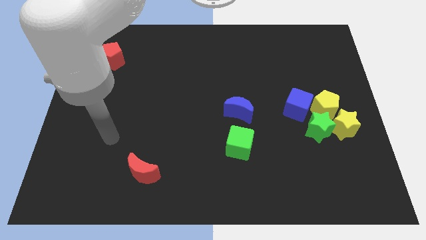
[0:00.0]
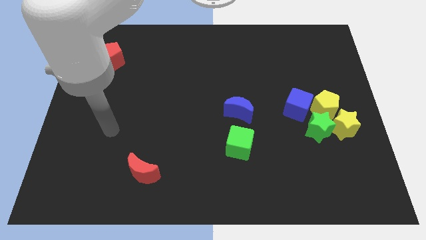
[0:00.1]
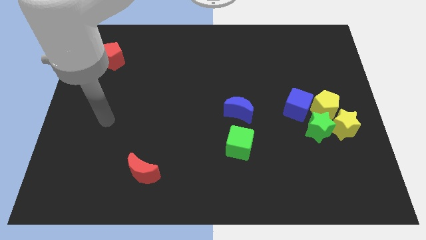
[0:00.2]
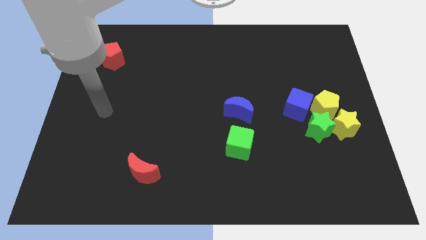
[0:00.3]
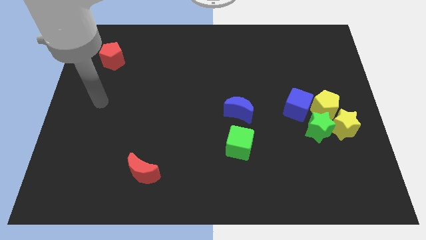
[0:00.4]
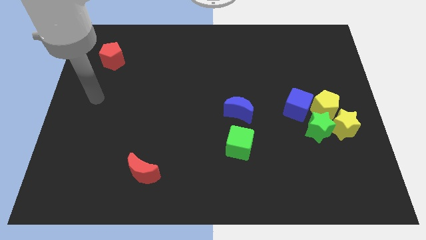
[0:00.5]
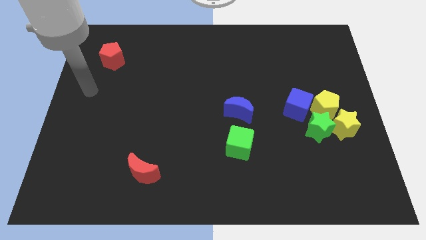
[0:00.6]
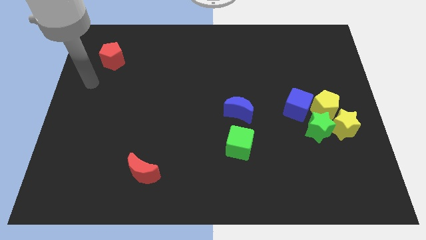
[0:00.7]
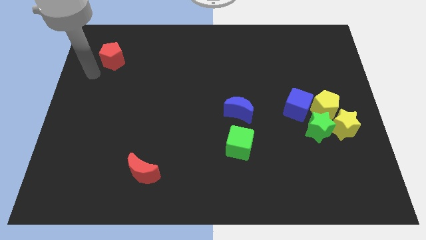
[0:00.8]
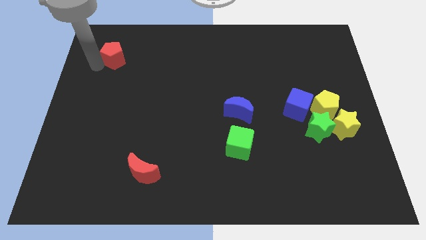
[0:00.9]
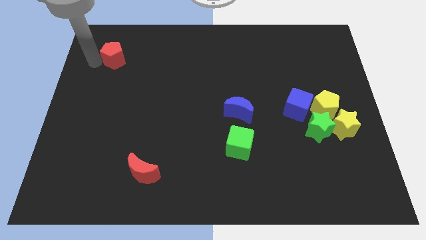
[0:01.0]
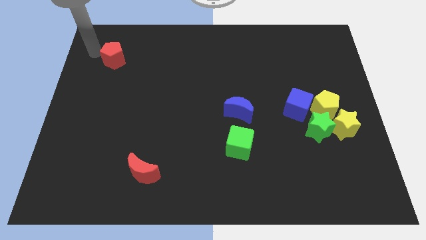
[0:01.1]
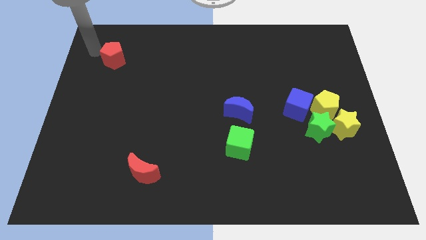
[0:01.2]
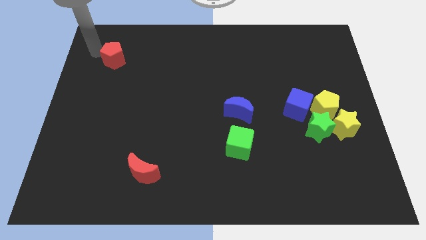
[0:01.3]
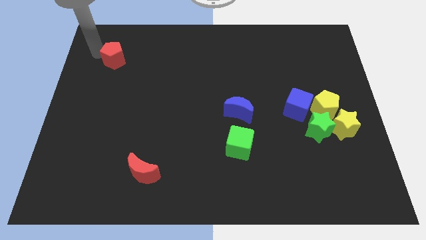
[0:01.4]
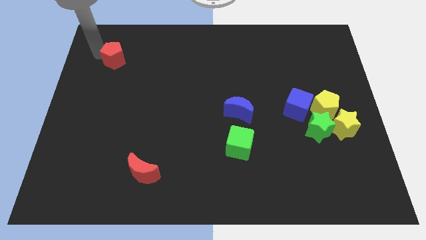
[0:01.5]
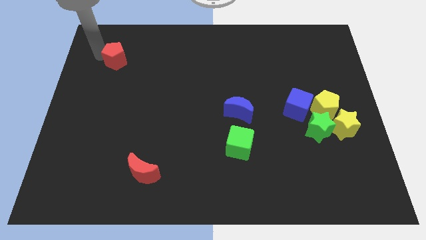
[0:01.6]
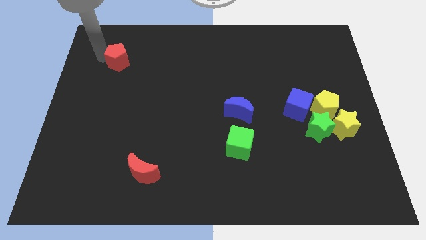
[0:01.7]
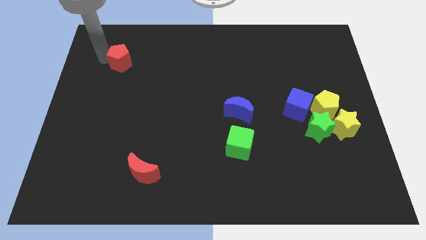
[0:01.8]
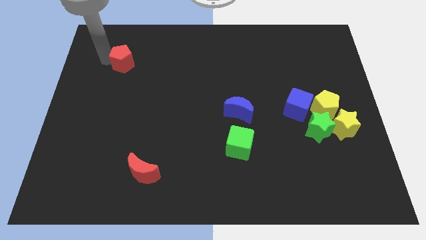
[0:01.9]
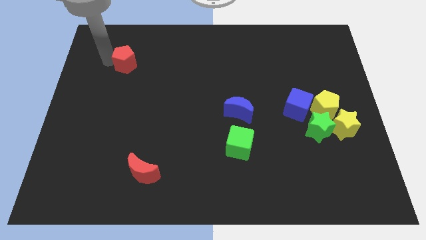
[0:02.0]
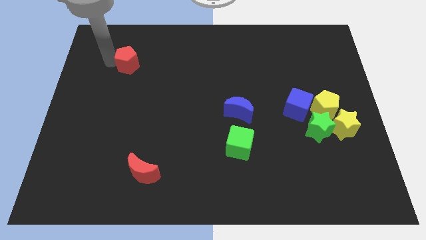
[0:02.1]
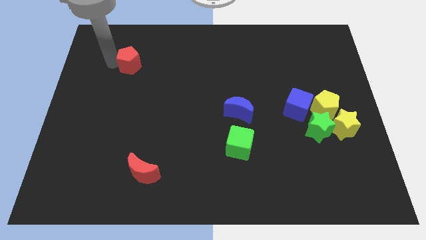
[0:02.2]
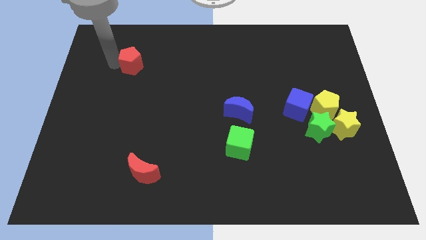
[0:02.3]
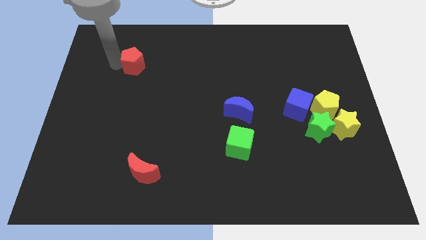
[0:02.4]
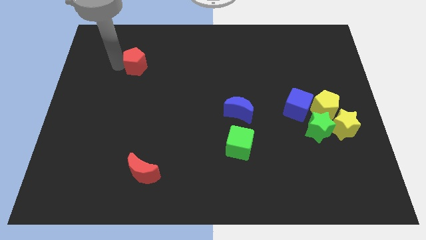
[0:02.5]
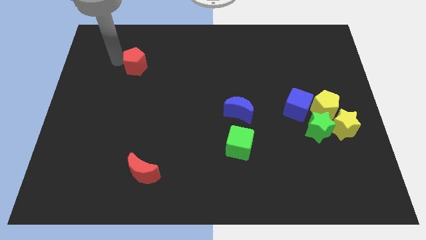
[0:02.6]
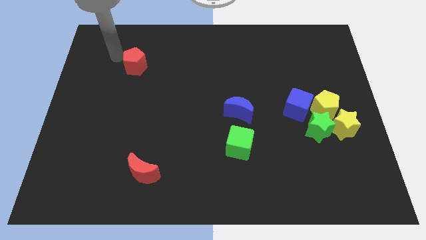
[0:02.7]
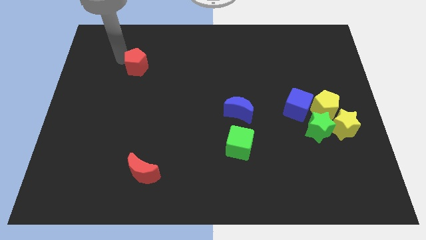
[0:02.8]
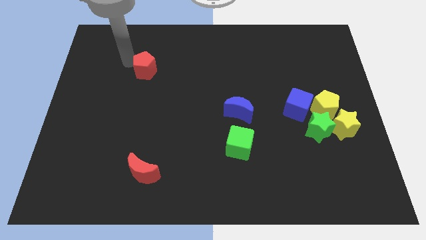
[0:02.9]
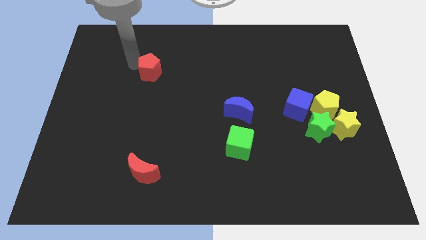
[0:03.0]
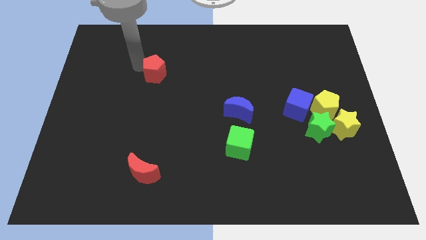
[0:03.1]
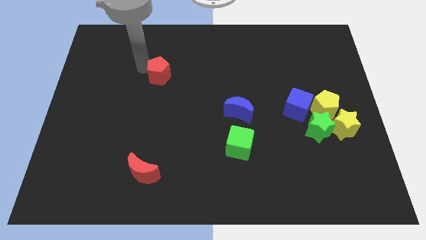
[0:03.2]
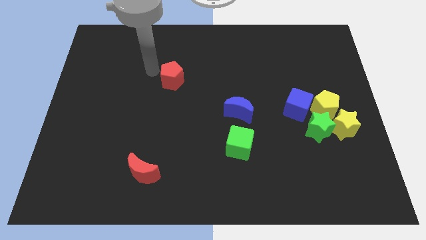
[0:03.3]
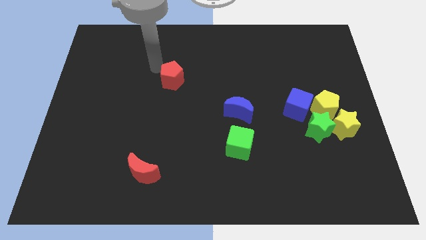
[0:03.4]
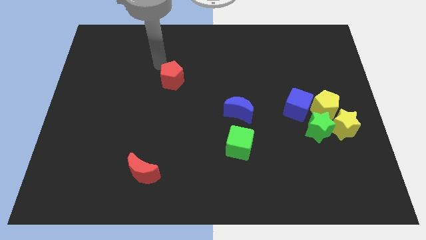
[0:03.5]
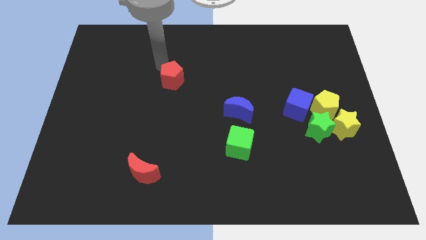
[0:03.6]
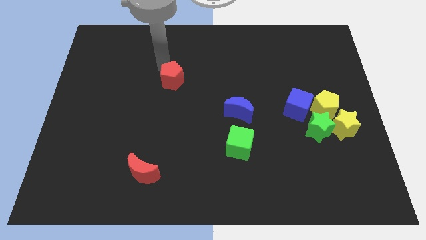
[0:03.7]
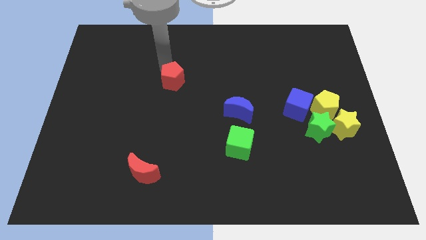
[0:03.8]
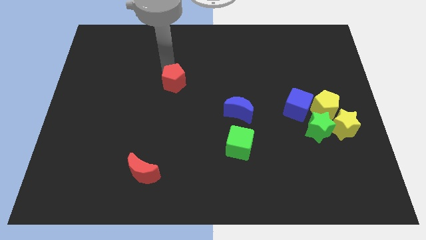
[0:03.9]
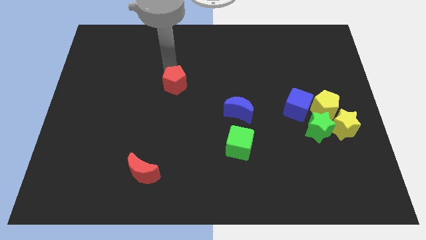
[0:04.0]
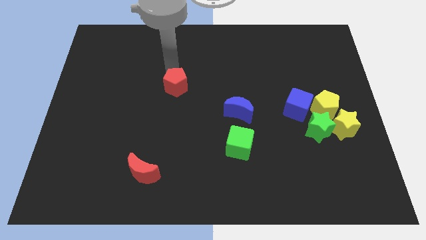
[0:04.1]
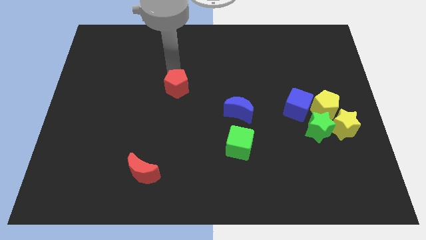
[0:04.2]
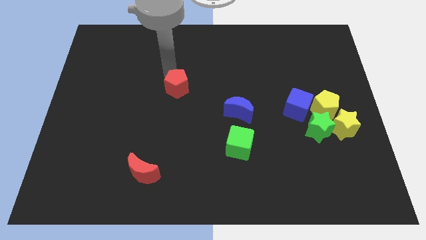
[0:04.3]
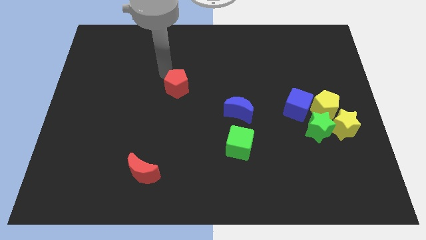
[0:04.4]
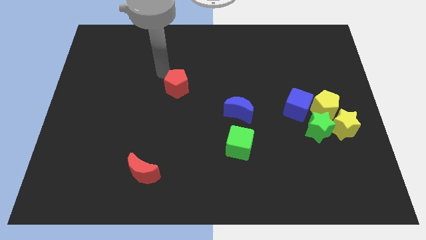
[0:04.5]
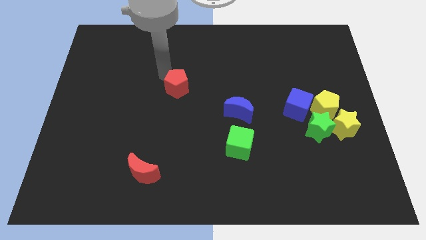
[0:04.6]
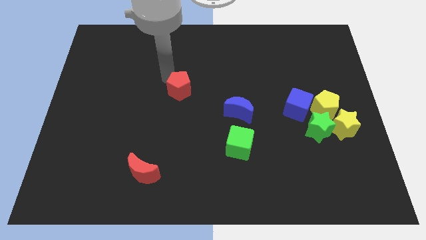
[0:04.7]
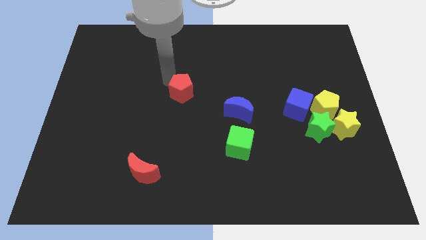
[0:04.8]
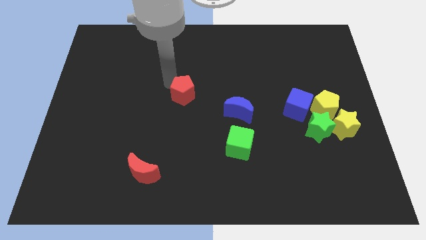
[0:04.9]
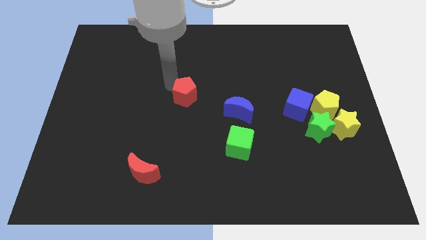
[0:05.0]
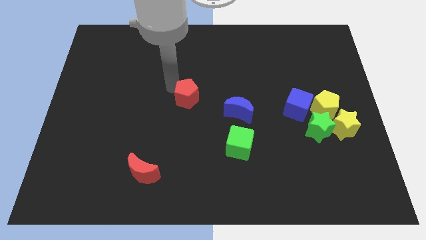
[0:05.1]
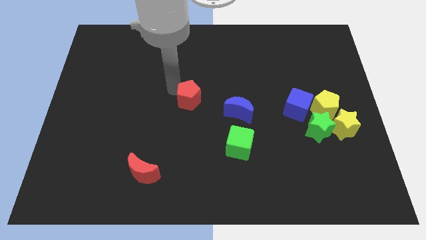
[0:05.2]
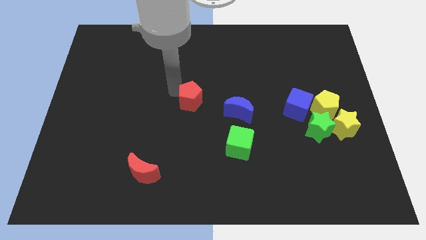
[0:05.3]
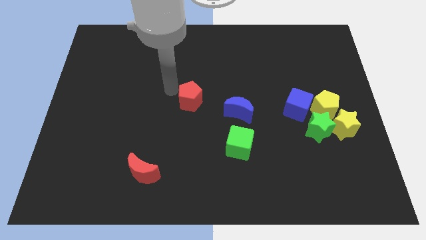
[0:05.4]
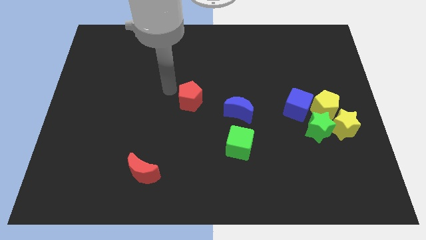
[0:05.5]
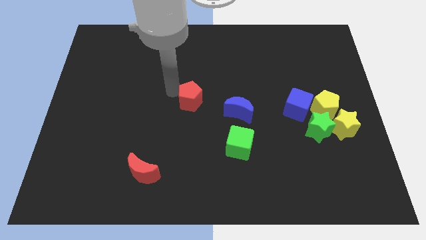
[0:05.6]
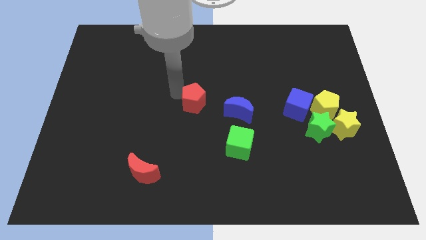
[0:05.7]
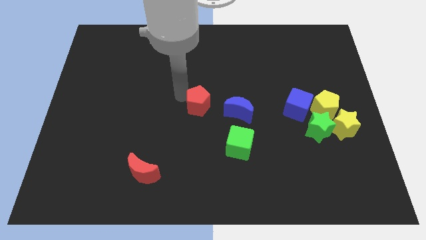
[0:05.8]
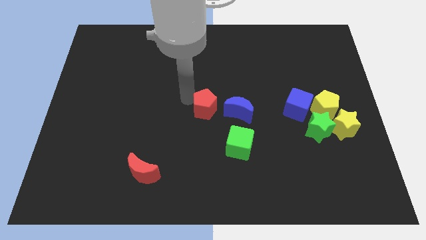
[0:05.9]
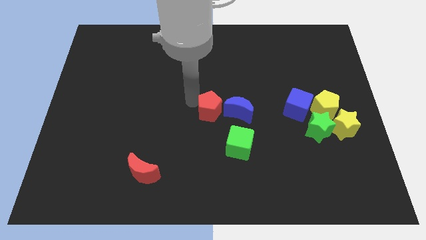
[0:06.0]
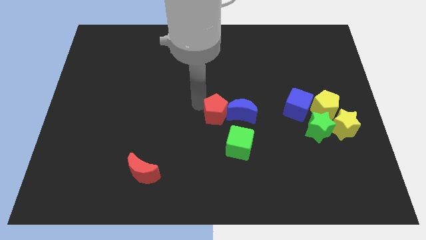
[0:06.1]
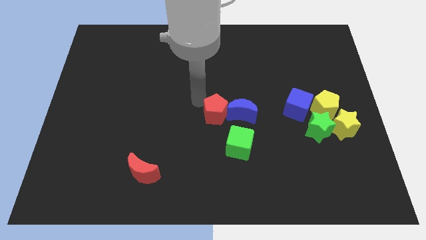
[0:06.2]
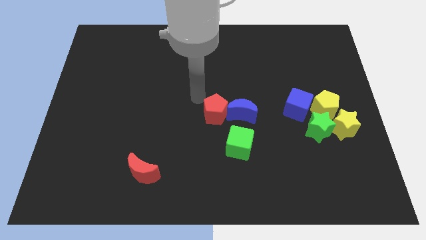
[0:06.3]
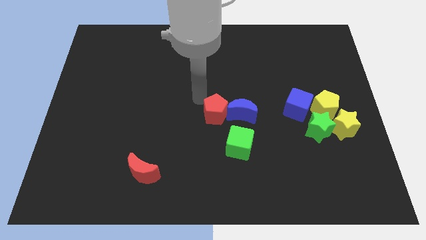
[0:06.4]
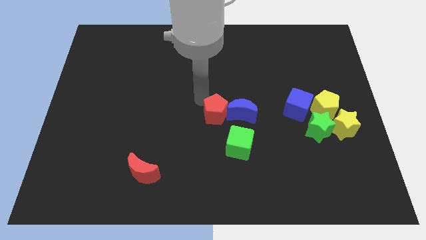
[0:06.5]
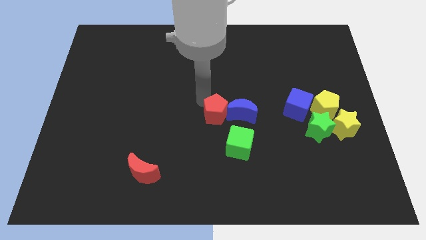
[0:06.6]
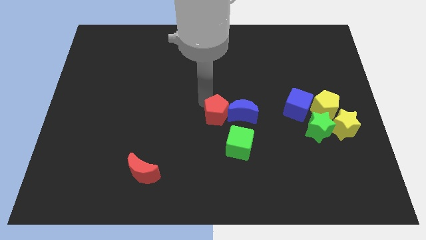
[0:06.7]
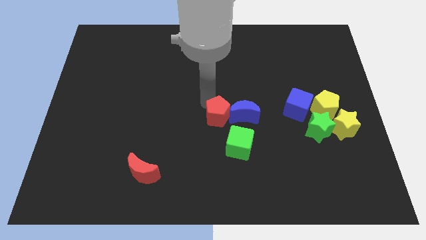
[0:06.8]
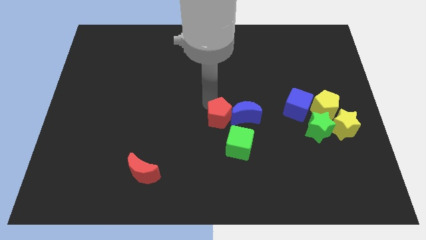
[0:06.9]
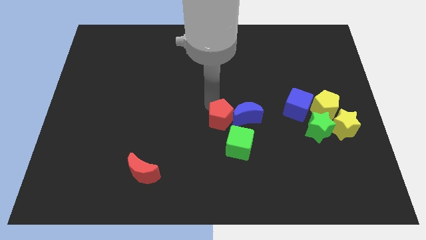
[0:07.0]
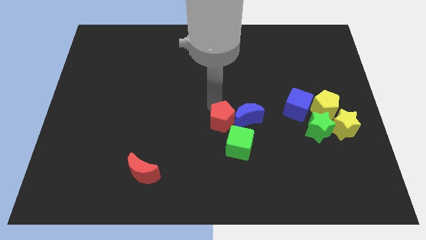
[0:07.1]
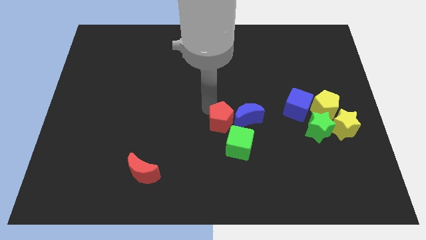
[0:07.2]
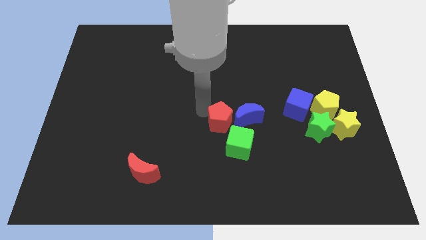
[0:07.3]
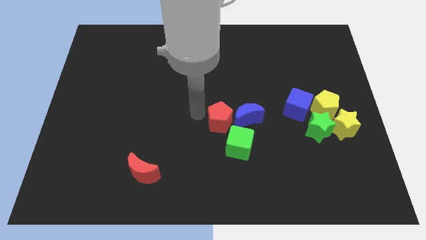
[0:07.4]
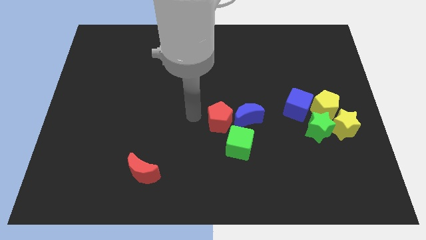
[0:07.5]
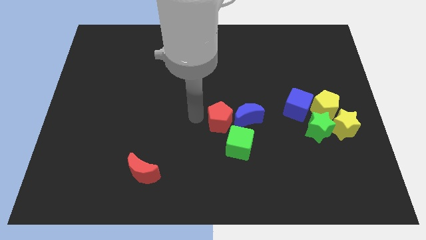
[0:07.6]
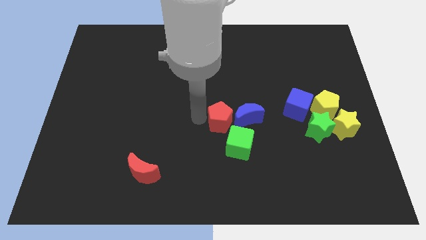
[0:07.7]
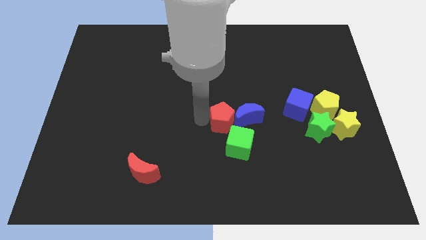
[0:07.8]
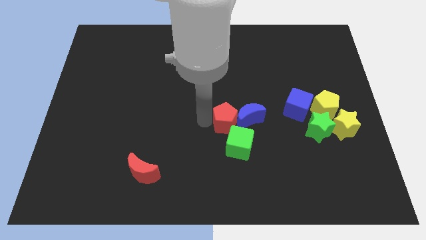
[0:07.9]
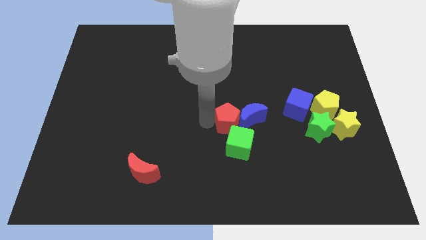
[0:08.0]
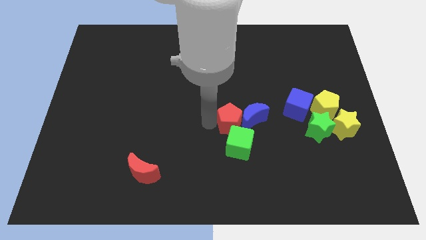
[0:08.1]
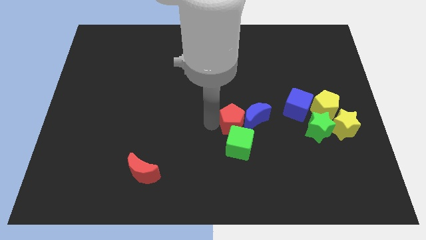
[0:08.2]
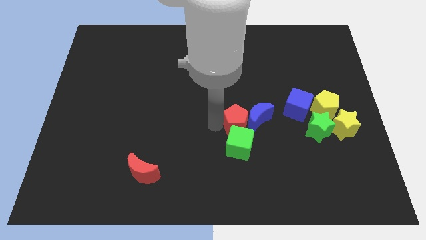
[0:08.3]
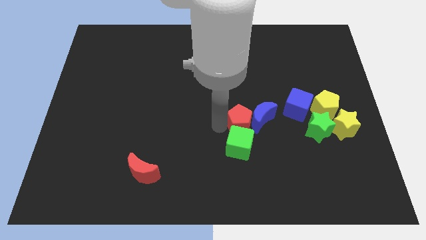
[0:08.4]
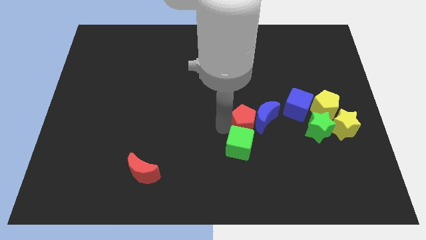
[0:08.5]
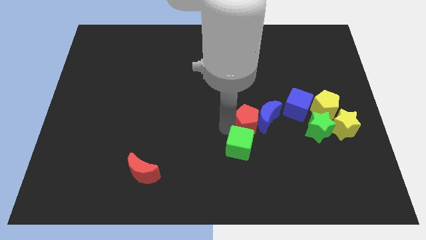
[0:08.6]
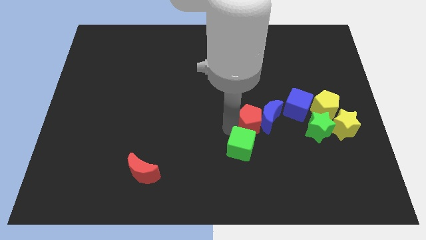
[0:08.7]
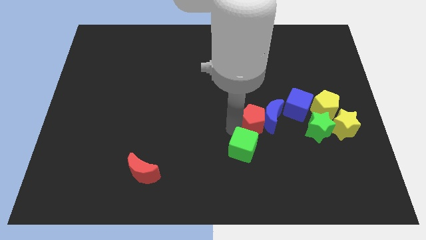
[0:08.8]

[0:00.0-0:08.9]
push the red pentagon diagonally down and to the left of the blue cube
